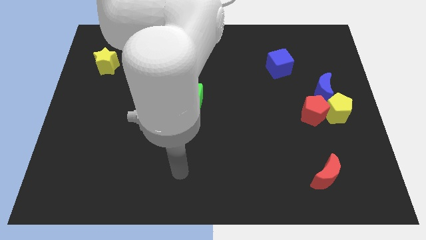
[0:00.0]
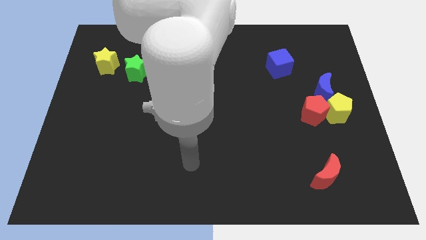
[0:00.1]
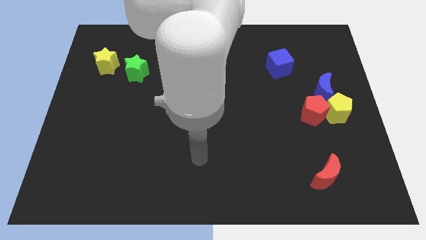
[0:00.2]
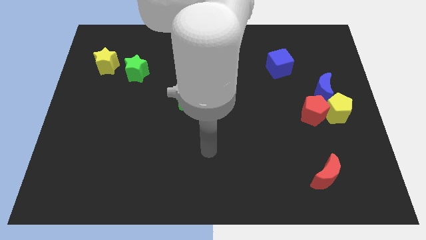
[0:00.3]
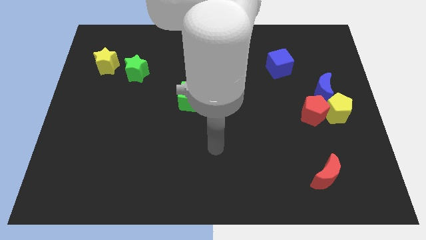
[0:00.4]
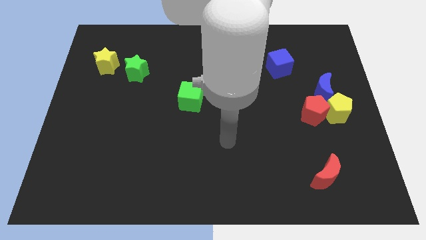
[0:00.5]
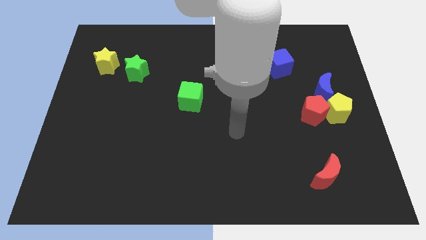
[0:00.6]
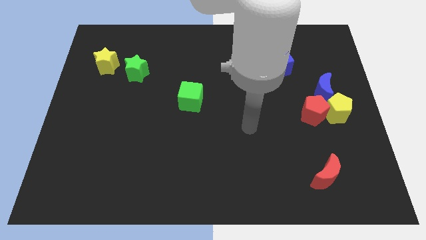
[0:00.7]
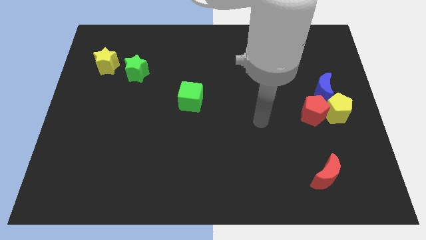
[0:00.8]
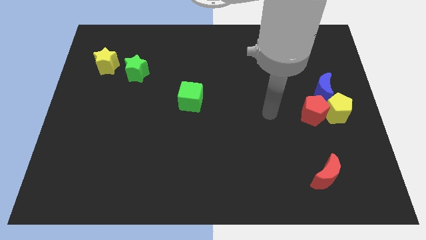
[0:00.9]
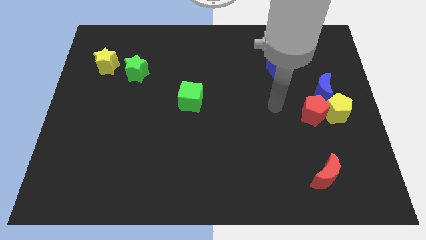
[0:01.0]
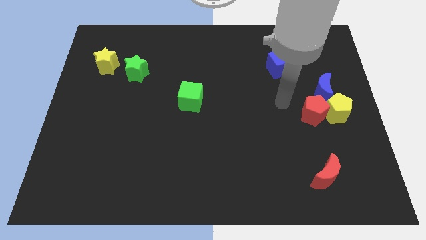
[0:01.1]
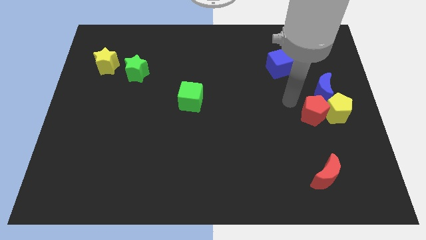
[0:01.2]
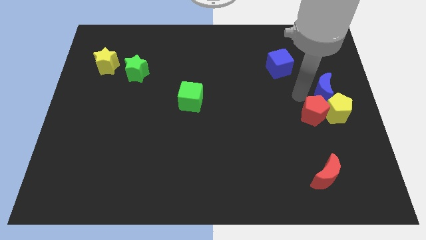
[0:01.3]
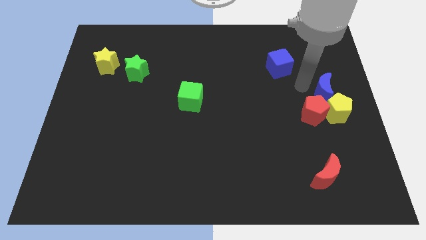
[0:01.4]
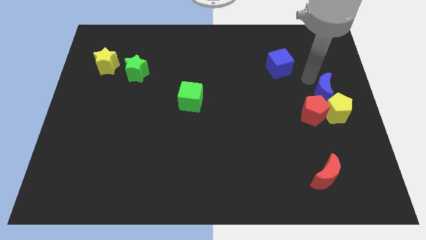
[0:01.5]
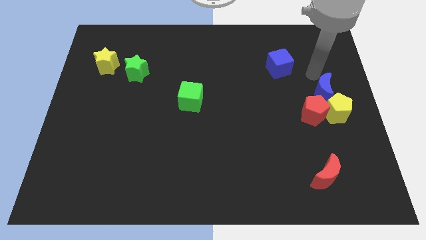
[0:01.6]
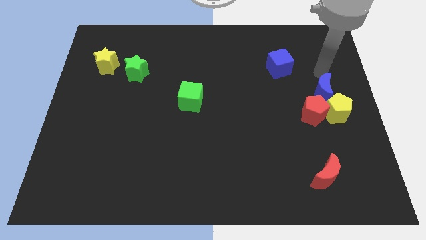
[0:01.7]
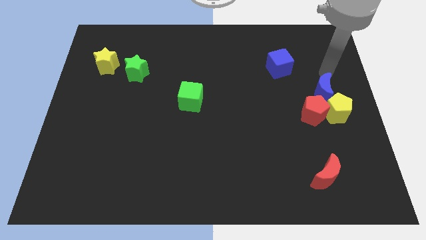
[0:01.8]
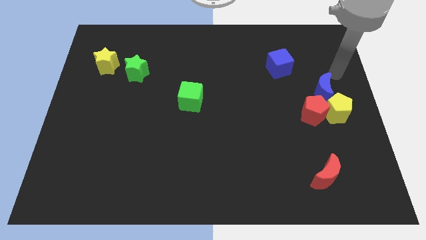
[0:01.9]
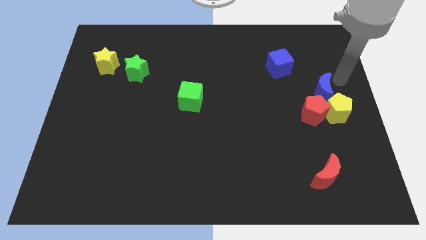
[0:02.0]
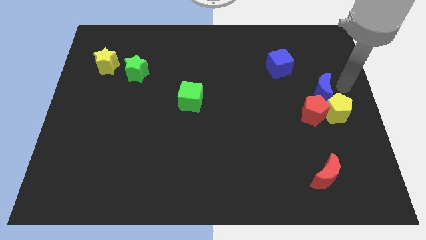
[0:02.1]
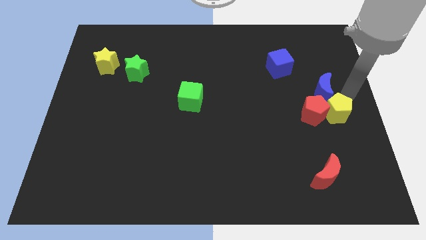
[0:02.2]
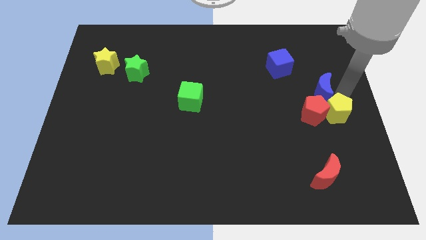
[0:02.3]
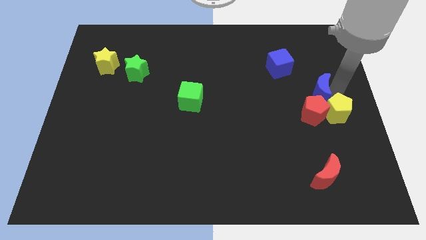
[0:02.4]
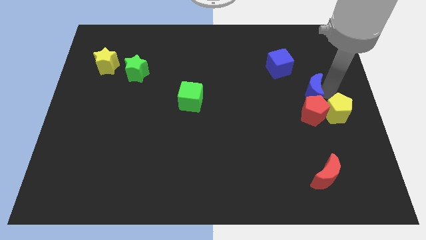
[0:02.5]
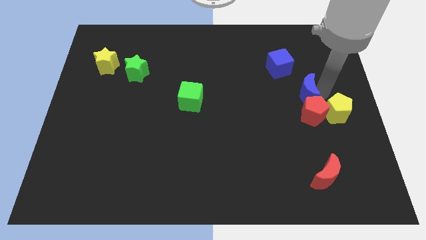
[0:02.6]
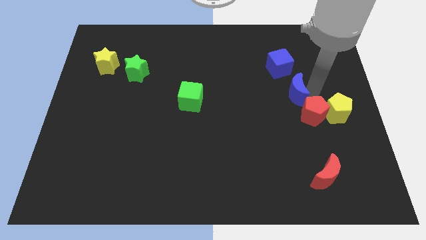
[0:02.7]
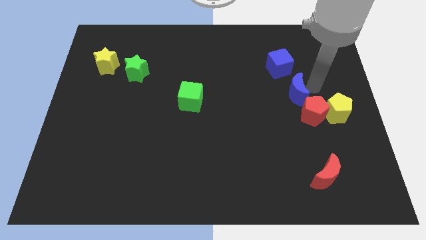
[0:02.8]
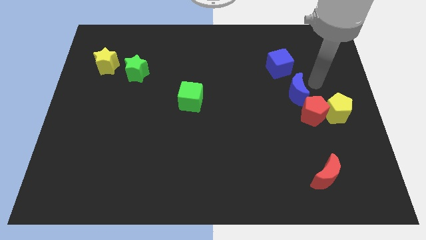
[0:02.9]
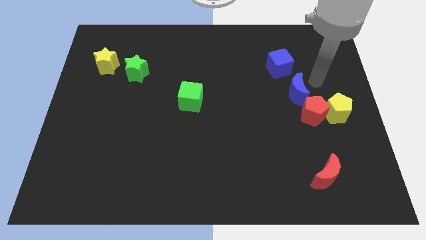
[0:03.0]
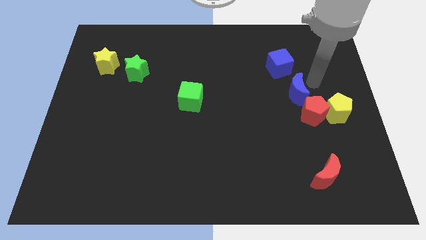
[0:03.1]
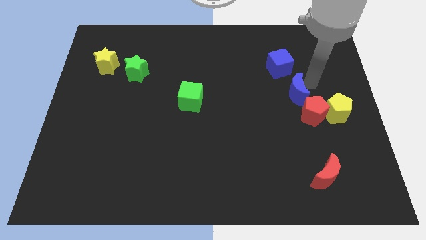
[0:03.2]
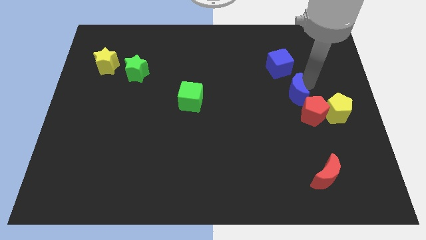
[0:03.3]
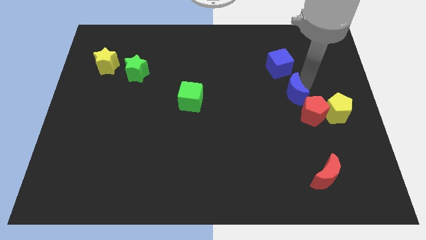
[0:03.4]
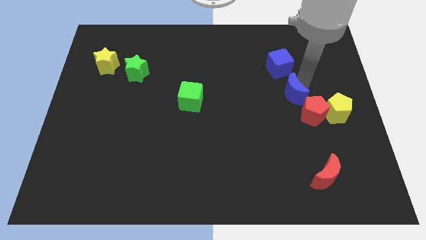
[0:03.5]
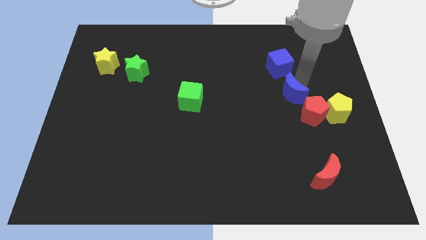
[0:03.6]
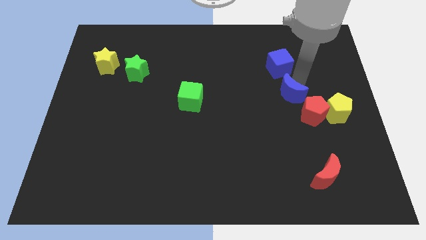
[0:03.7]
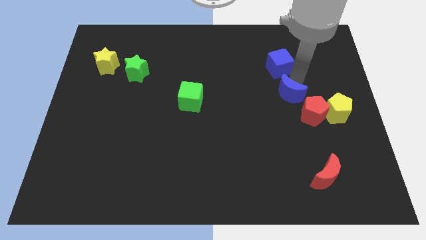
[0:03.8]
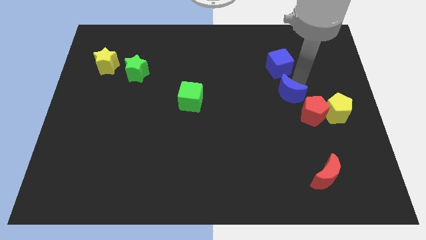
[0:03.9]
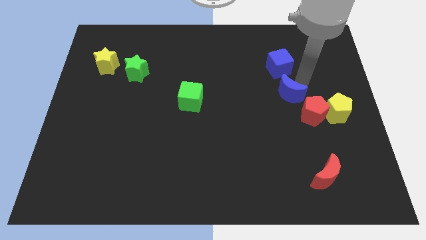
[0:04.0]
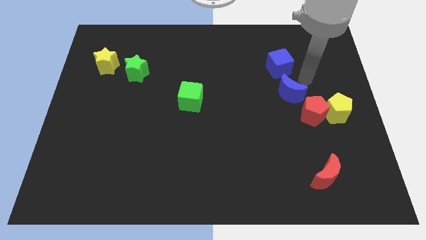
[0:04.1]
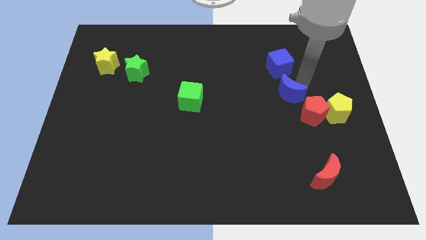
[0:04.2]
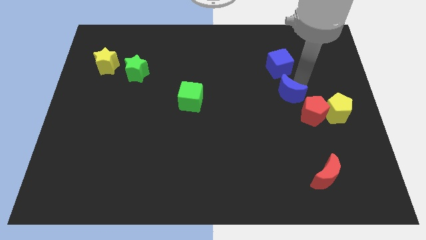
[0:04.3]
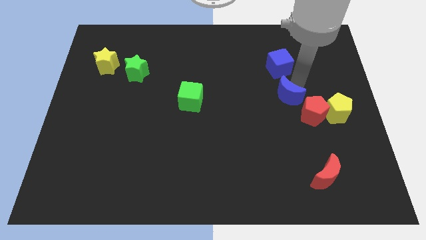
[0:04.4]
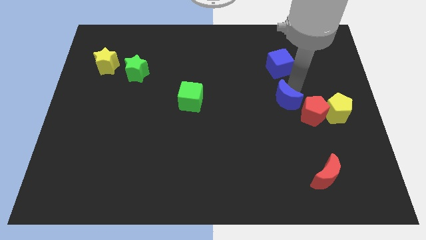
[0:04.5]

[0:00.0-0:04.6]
slightly move the blue moon diagonally downwards and left

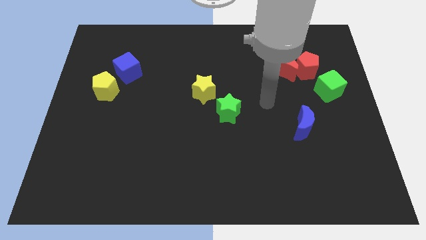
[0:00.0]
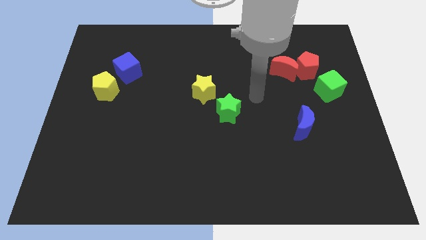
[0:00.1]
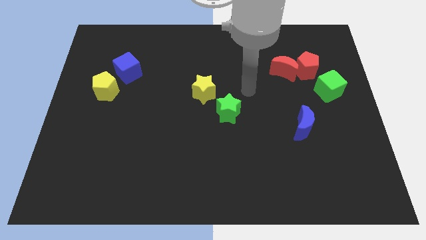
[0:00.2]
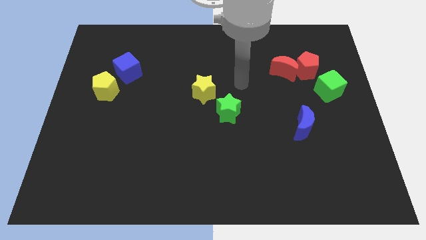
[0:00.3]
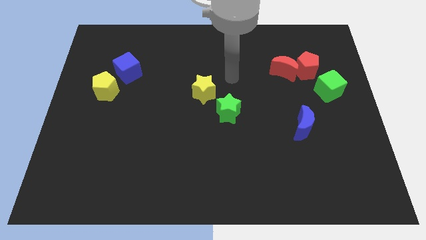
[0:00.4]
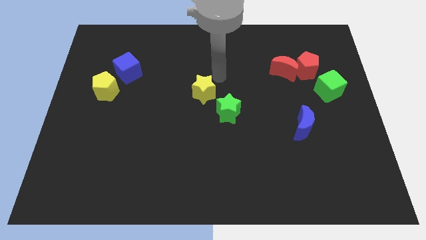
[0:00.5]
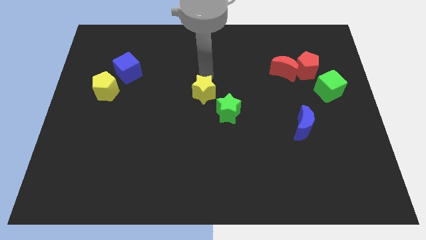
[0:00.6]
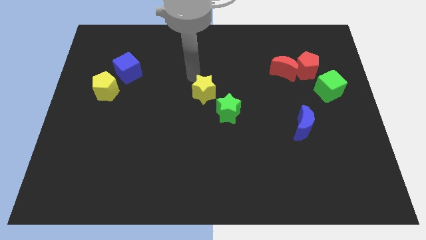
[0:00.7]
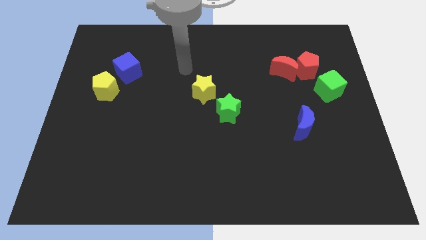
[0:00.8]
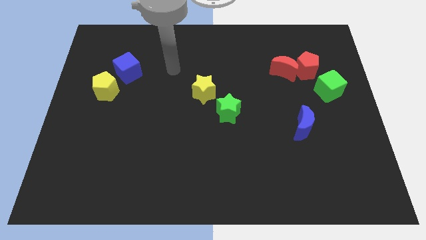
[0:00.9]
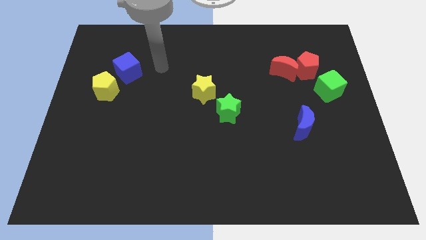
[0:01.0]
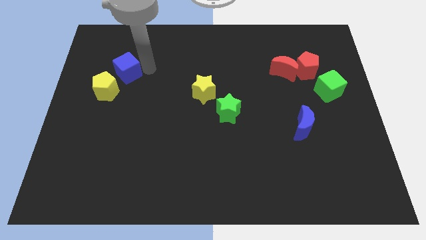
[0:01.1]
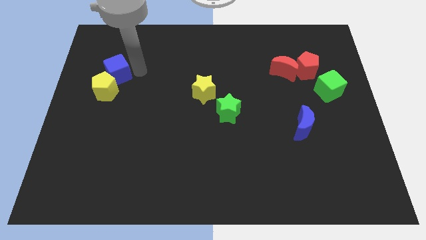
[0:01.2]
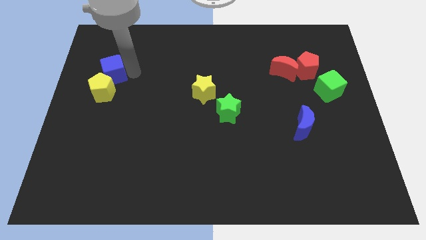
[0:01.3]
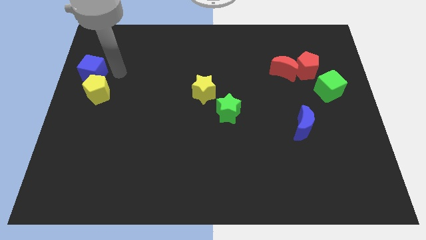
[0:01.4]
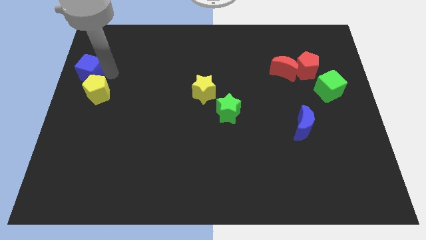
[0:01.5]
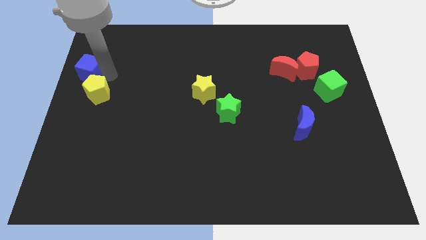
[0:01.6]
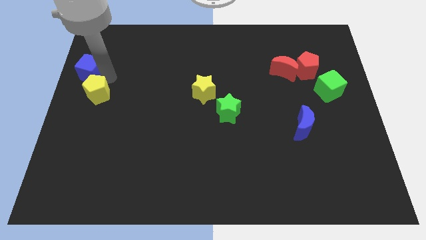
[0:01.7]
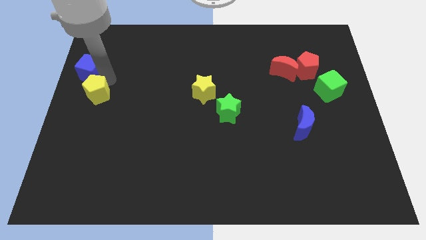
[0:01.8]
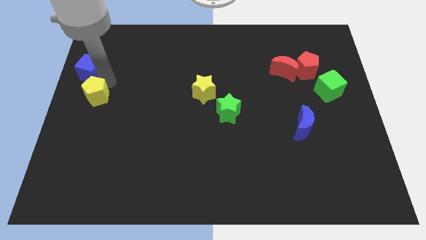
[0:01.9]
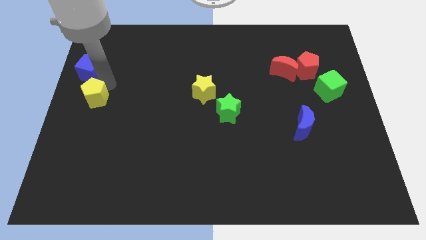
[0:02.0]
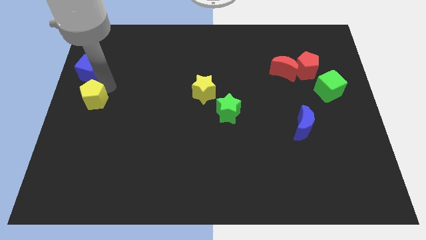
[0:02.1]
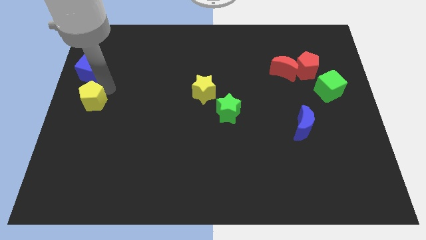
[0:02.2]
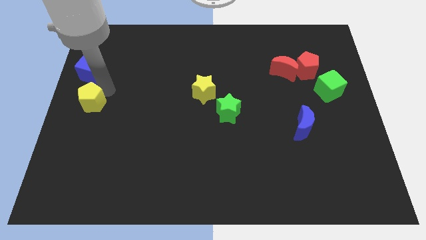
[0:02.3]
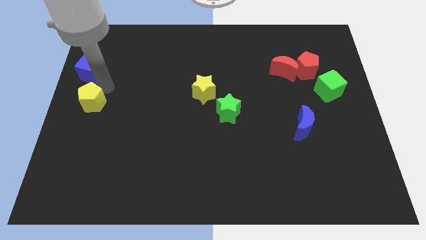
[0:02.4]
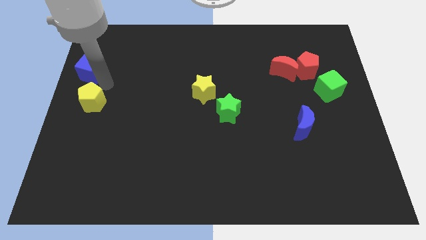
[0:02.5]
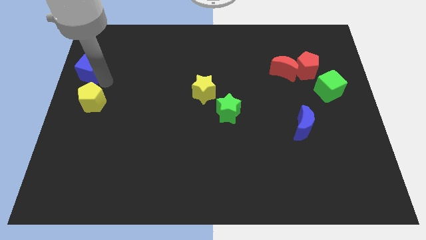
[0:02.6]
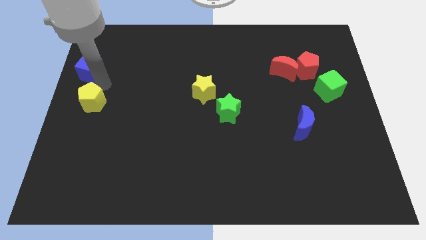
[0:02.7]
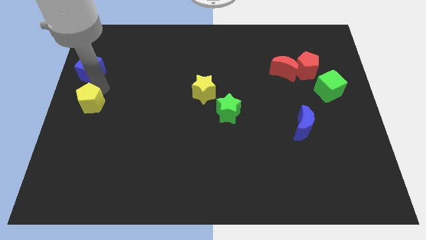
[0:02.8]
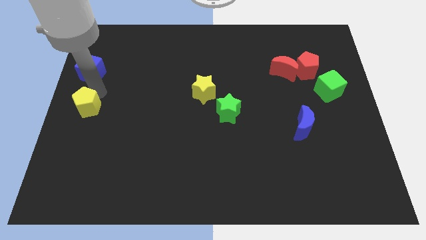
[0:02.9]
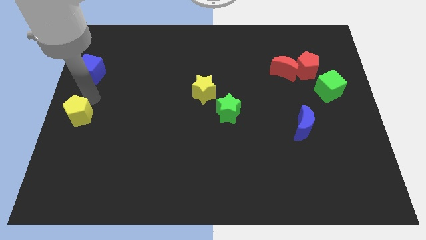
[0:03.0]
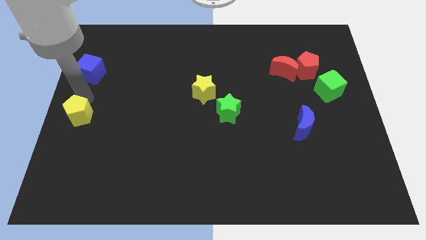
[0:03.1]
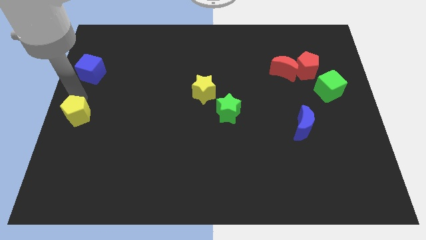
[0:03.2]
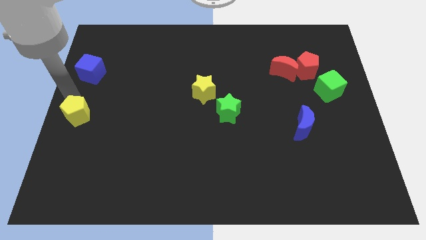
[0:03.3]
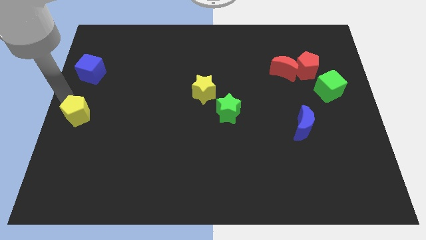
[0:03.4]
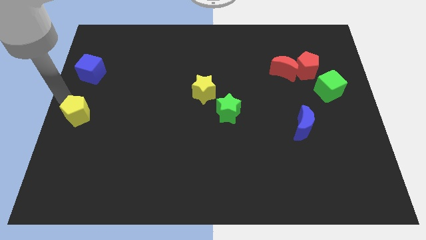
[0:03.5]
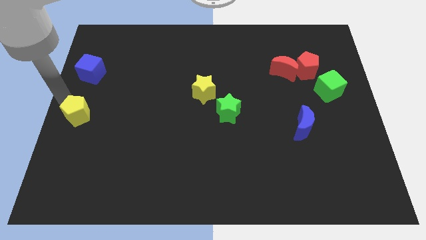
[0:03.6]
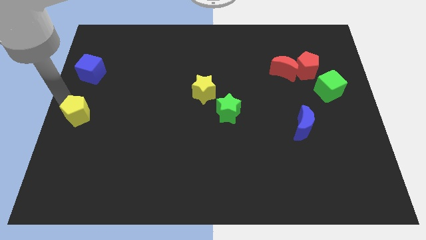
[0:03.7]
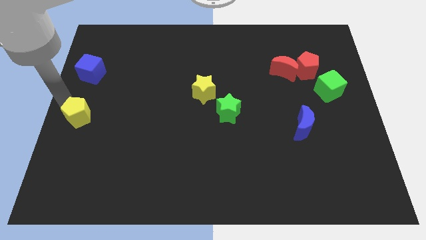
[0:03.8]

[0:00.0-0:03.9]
slightly move the yellow pentagon downwards
